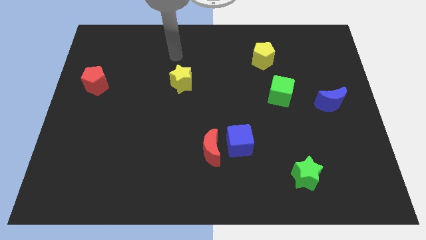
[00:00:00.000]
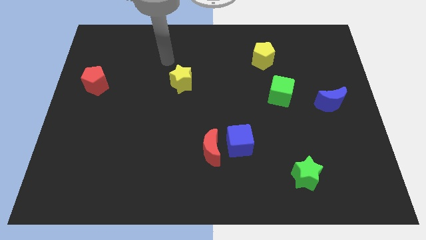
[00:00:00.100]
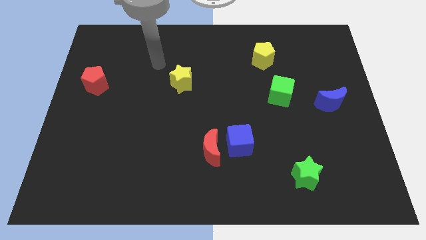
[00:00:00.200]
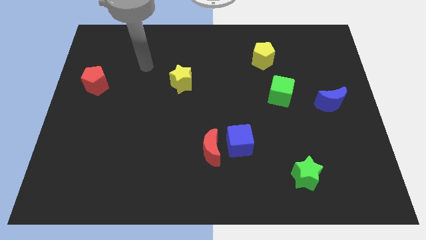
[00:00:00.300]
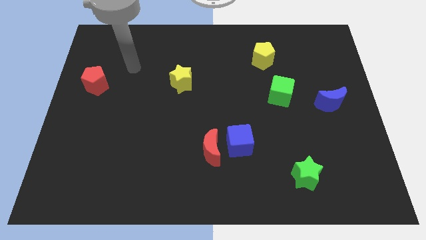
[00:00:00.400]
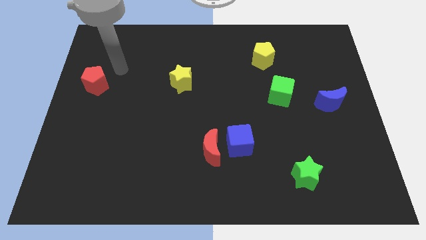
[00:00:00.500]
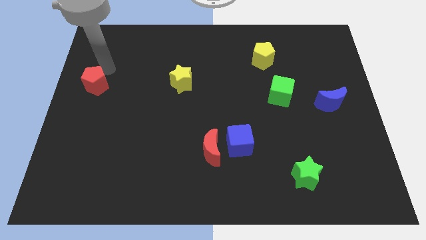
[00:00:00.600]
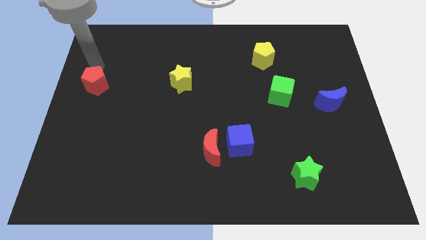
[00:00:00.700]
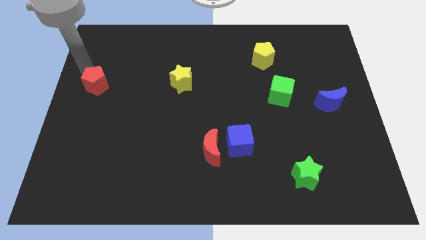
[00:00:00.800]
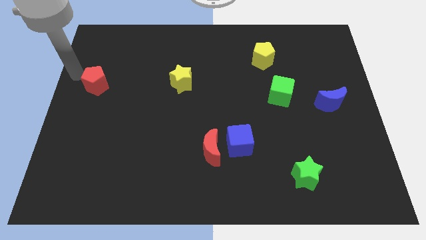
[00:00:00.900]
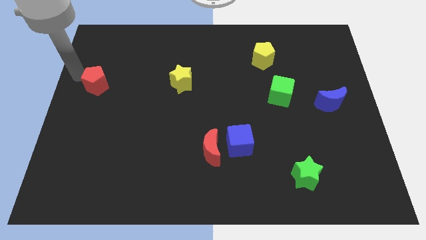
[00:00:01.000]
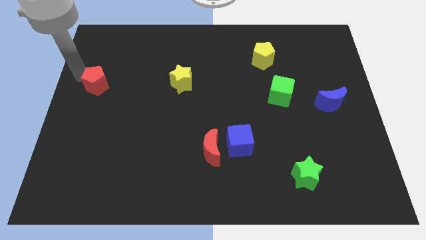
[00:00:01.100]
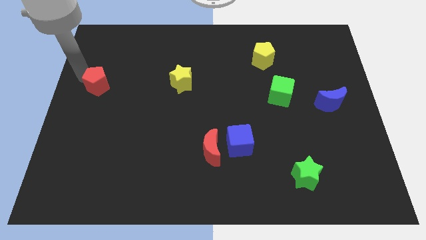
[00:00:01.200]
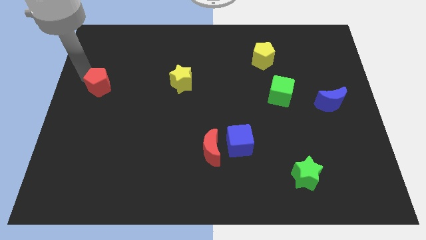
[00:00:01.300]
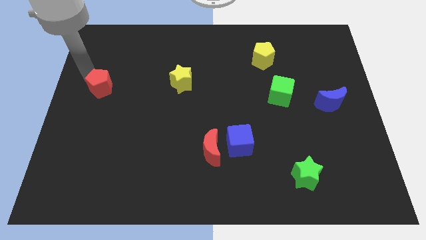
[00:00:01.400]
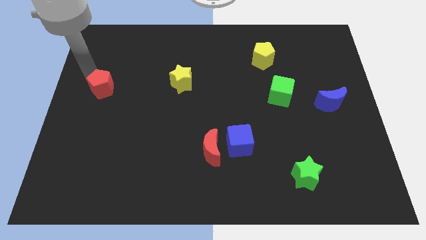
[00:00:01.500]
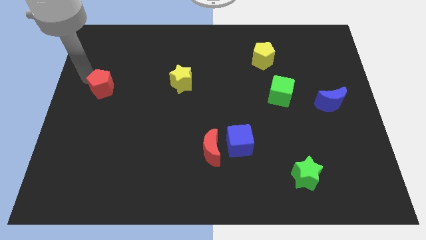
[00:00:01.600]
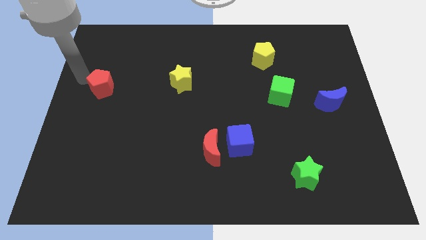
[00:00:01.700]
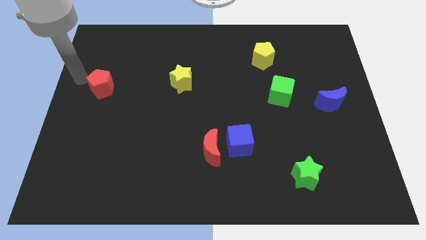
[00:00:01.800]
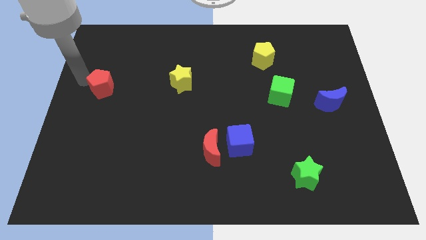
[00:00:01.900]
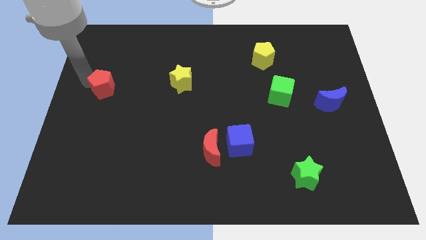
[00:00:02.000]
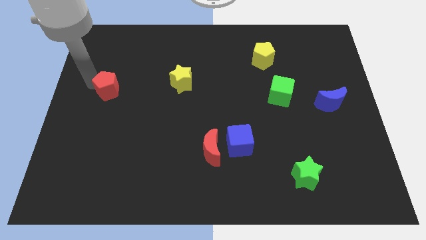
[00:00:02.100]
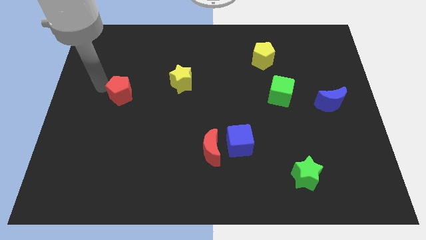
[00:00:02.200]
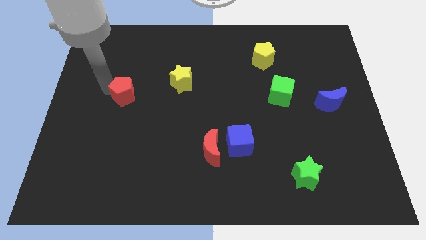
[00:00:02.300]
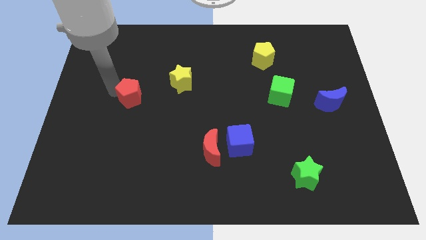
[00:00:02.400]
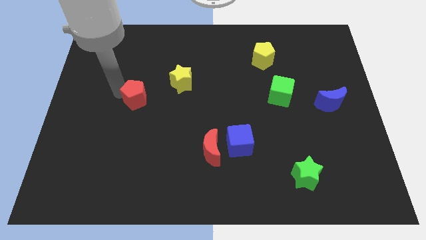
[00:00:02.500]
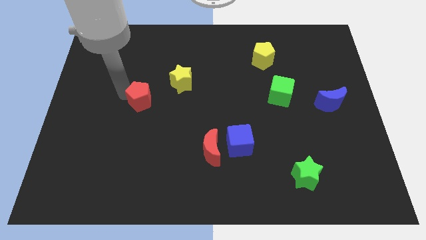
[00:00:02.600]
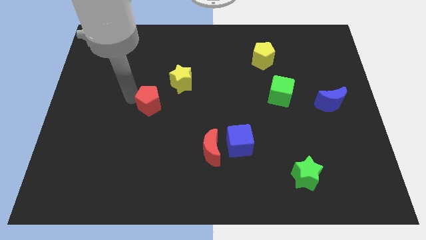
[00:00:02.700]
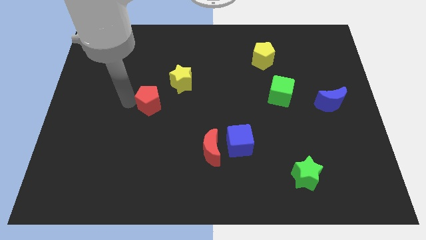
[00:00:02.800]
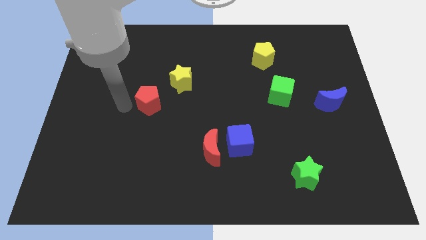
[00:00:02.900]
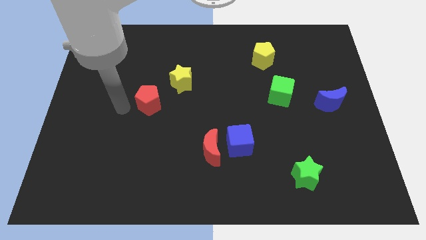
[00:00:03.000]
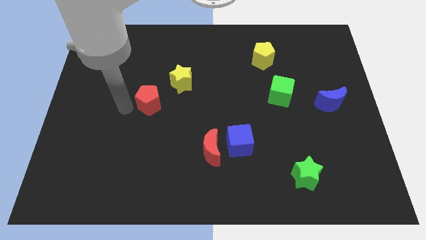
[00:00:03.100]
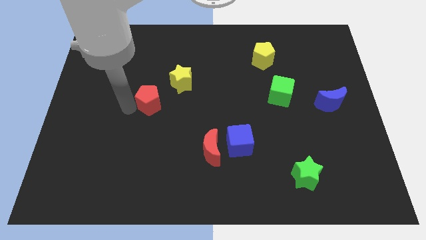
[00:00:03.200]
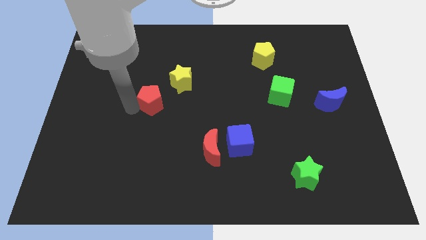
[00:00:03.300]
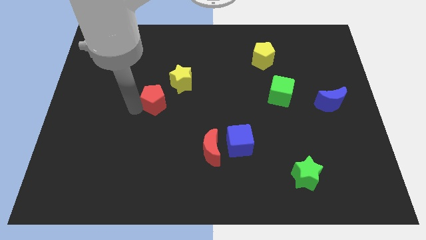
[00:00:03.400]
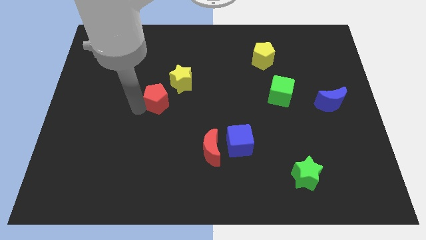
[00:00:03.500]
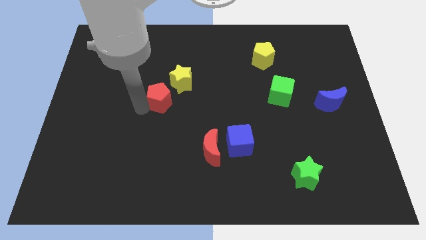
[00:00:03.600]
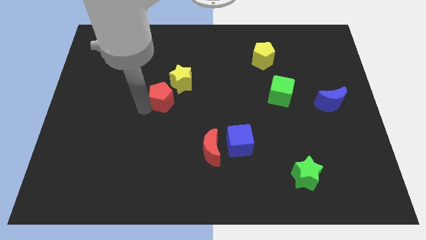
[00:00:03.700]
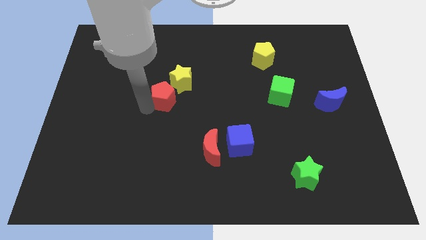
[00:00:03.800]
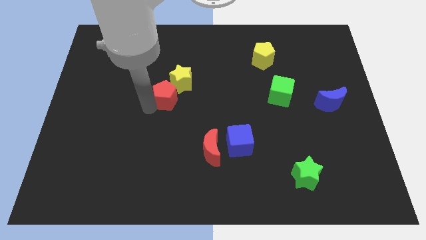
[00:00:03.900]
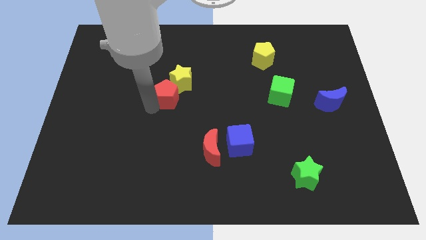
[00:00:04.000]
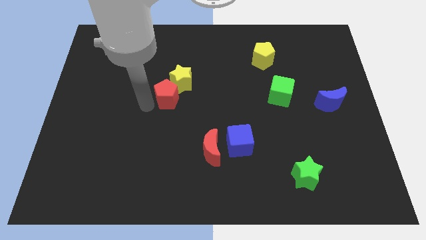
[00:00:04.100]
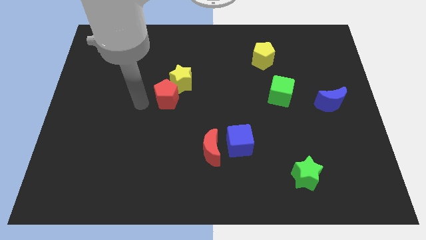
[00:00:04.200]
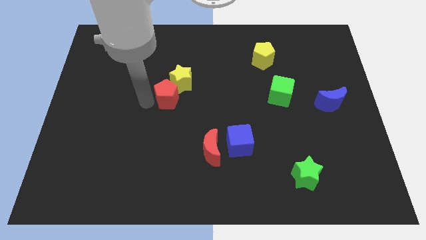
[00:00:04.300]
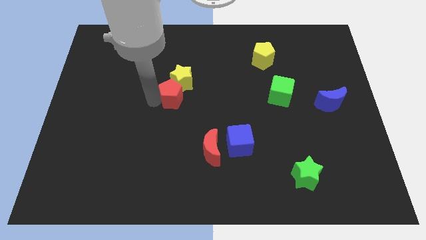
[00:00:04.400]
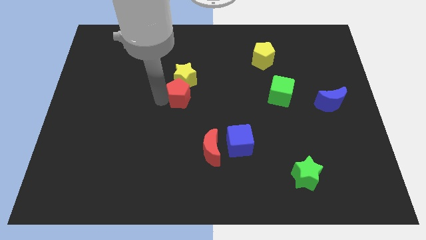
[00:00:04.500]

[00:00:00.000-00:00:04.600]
push the red pentagon to the right

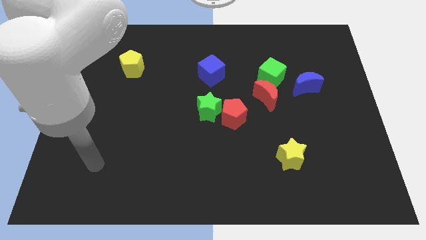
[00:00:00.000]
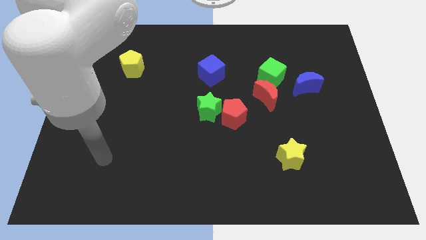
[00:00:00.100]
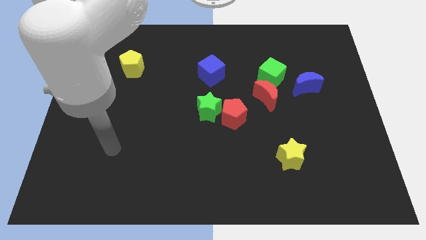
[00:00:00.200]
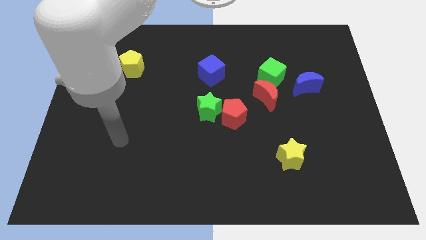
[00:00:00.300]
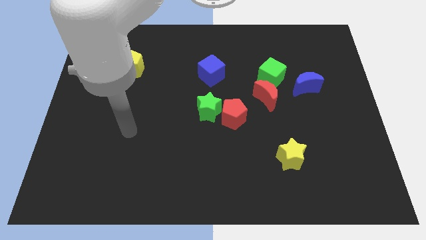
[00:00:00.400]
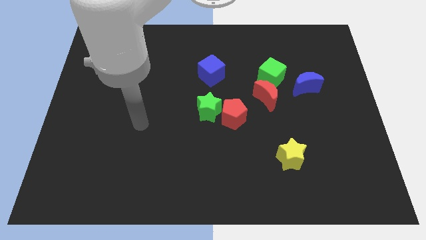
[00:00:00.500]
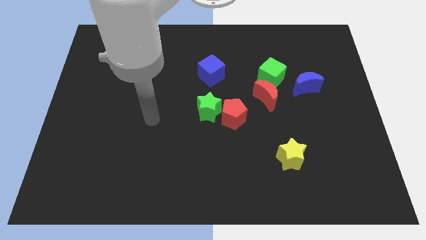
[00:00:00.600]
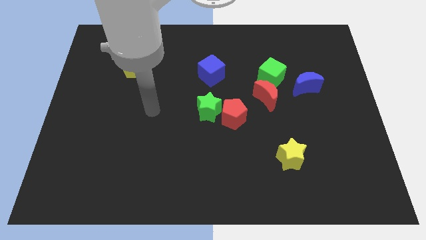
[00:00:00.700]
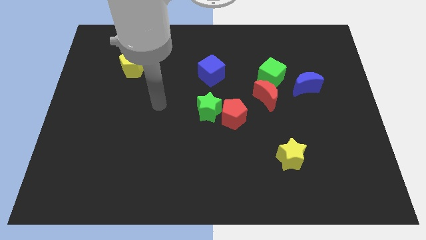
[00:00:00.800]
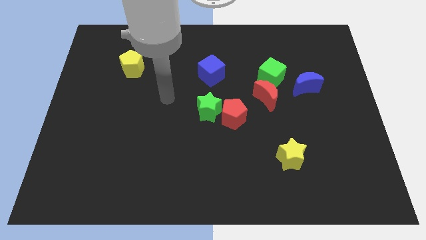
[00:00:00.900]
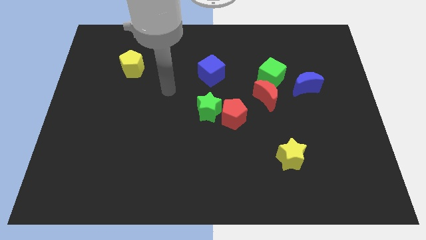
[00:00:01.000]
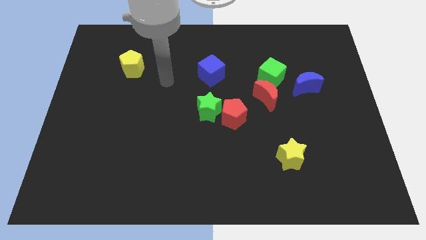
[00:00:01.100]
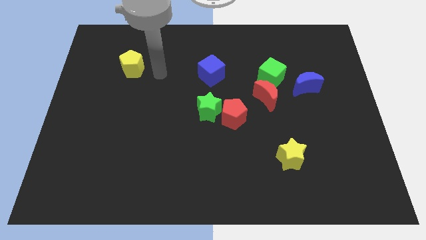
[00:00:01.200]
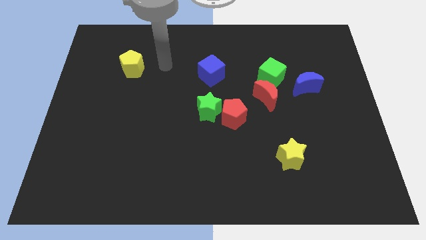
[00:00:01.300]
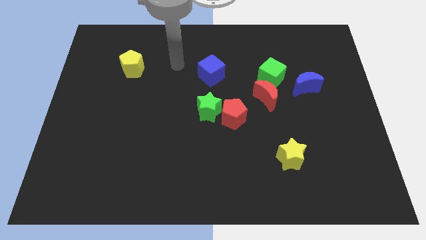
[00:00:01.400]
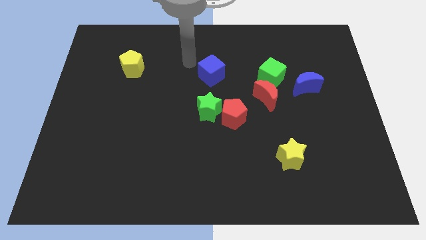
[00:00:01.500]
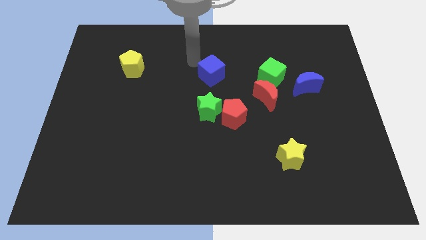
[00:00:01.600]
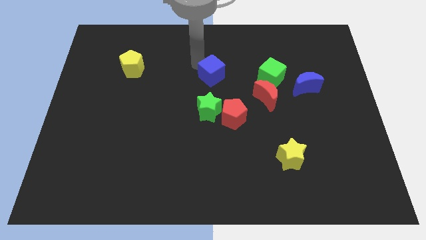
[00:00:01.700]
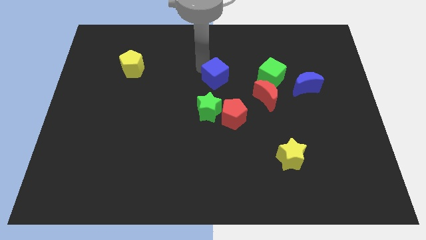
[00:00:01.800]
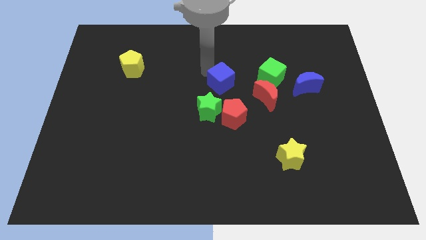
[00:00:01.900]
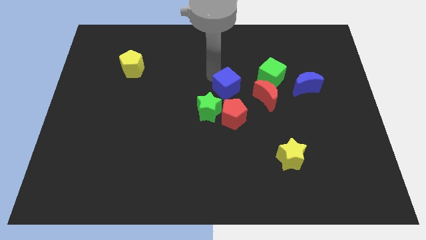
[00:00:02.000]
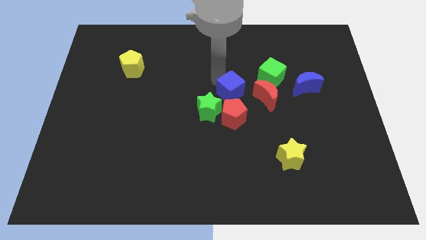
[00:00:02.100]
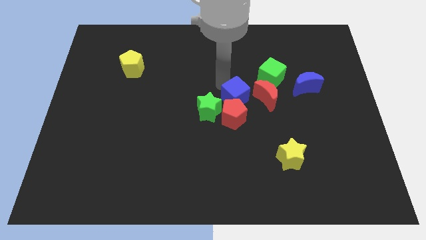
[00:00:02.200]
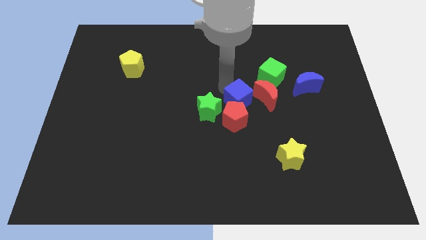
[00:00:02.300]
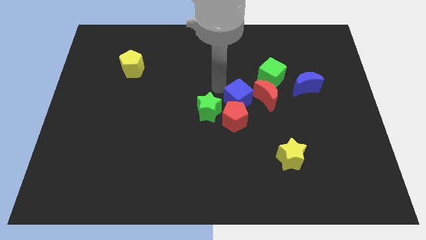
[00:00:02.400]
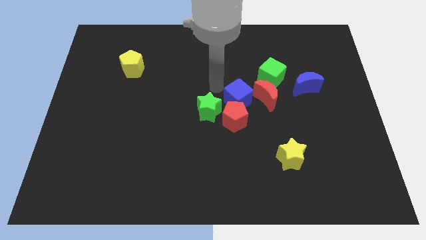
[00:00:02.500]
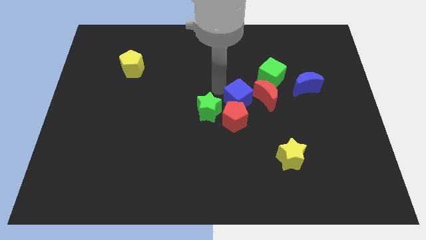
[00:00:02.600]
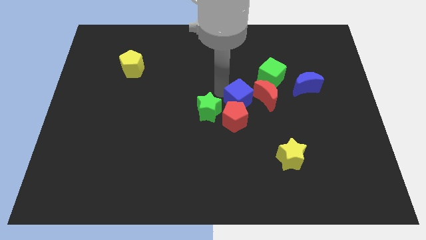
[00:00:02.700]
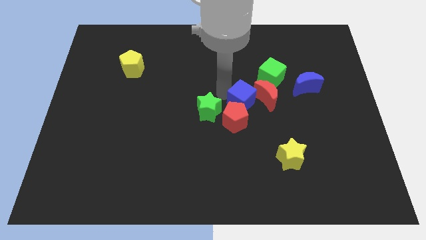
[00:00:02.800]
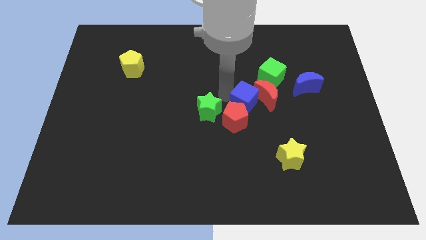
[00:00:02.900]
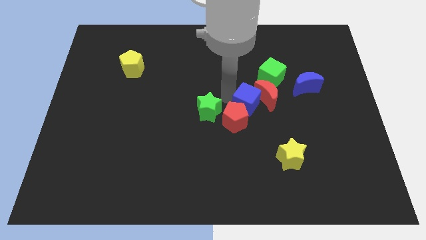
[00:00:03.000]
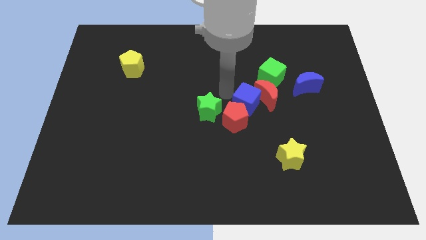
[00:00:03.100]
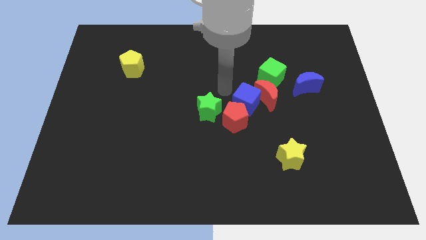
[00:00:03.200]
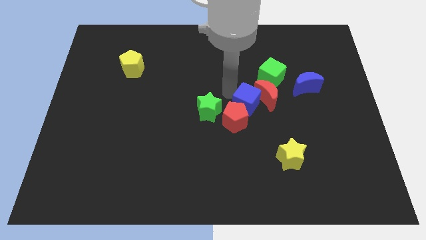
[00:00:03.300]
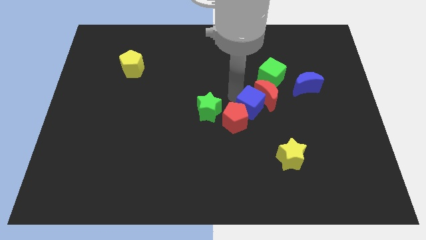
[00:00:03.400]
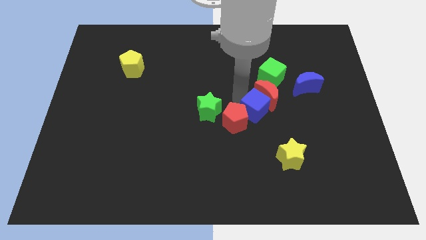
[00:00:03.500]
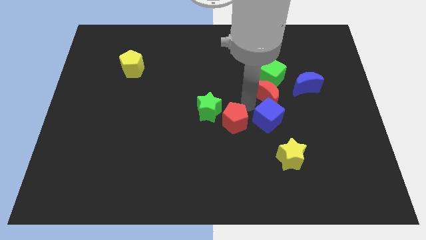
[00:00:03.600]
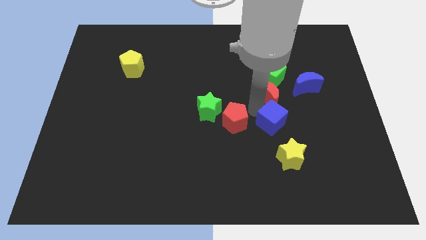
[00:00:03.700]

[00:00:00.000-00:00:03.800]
push the blue cube down and to the right diagonally
